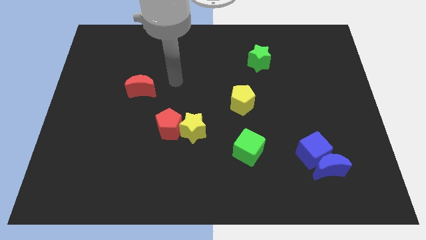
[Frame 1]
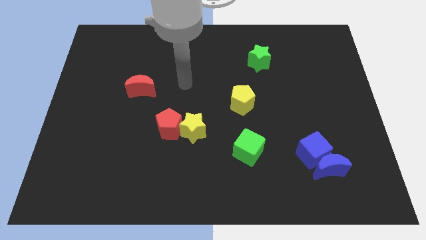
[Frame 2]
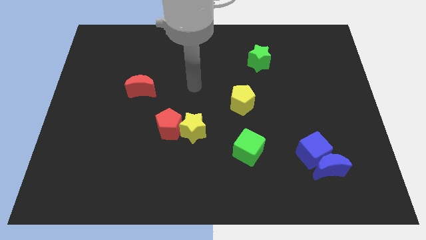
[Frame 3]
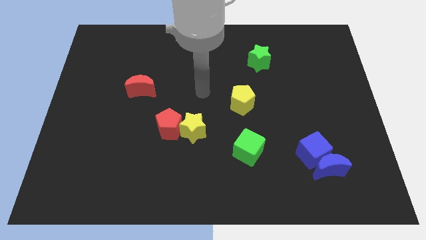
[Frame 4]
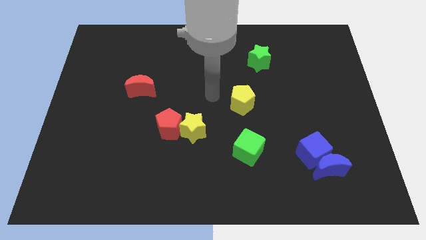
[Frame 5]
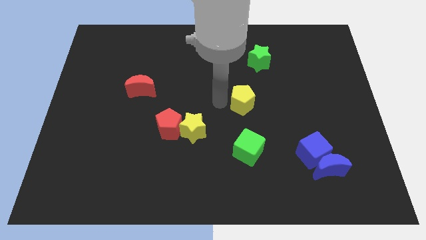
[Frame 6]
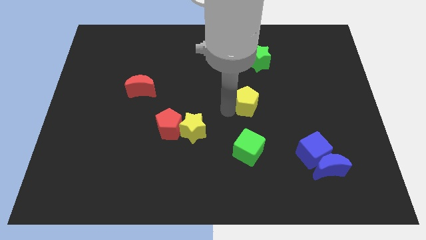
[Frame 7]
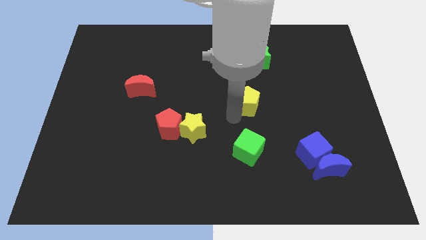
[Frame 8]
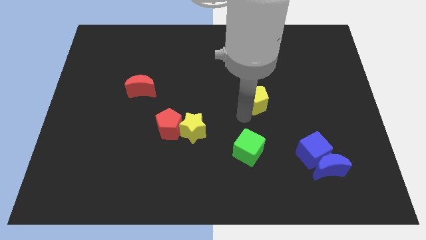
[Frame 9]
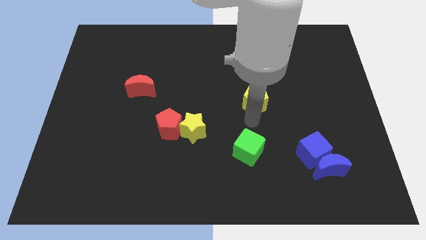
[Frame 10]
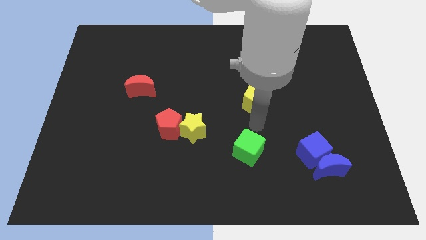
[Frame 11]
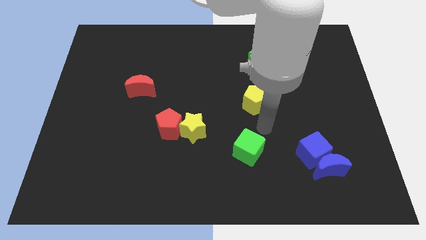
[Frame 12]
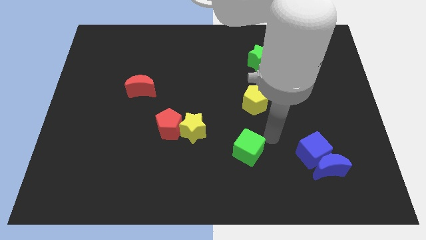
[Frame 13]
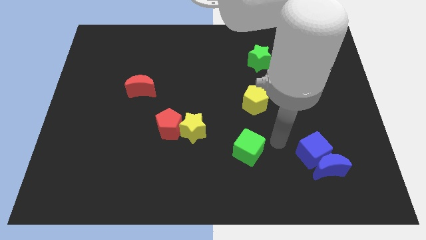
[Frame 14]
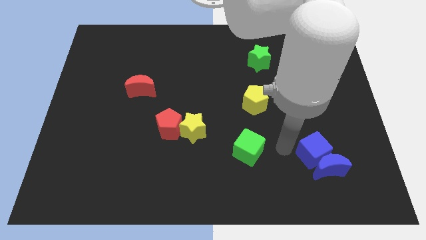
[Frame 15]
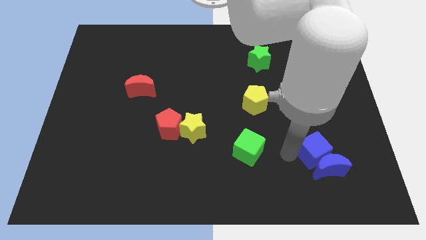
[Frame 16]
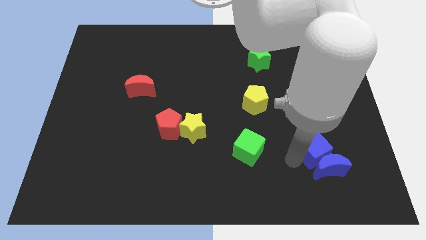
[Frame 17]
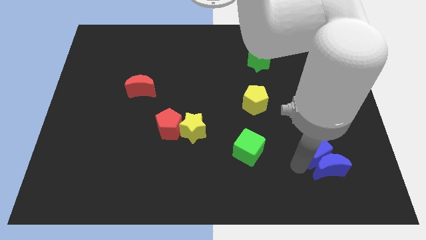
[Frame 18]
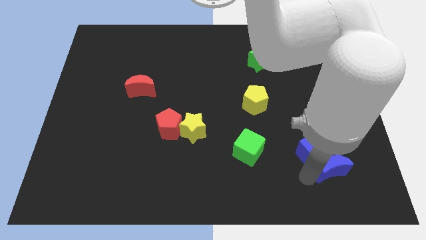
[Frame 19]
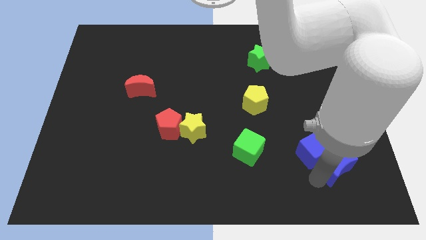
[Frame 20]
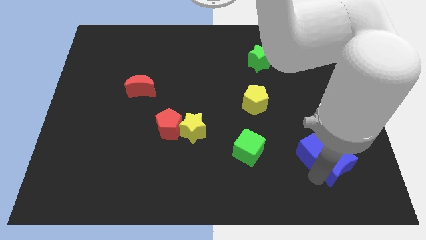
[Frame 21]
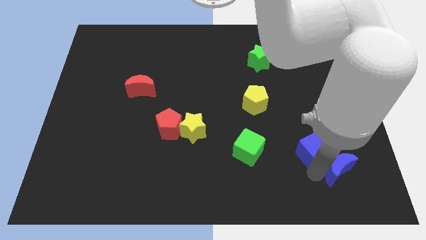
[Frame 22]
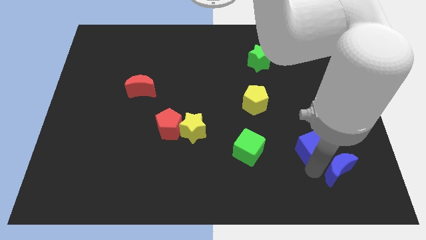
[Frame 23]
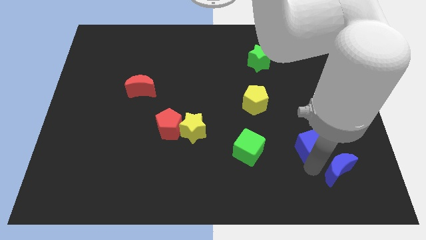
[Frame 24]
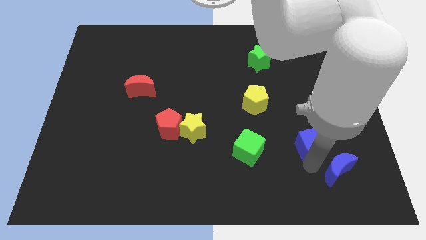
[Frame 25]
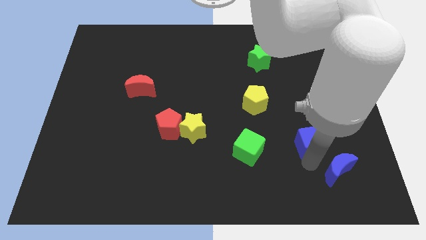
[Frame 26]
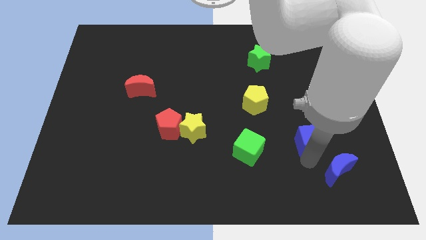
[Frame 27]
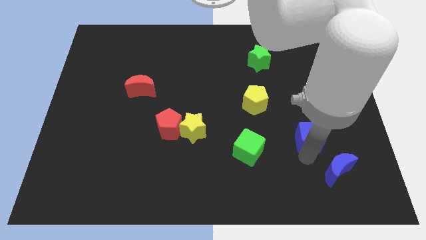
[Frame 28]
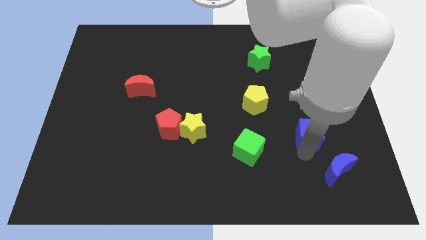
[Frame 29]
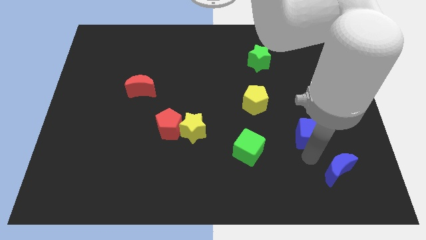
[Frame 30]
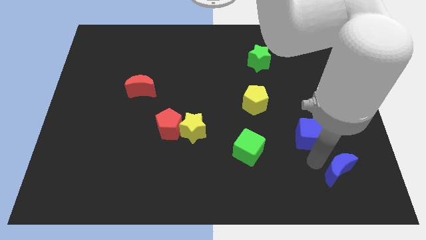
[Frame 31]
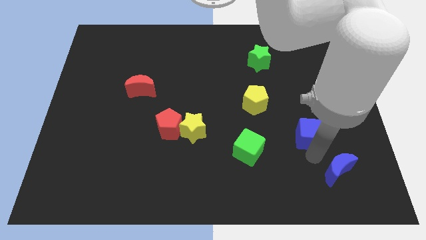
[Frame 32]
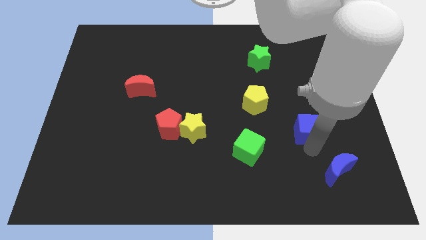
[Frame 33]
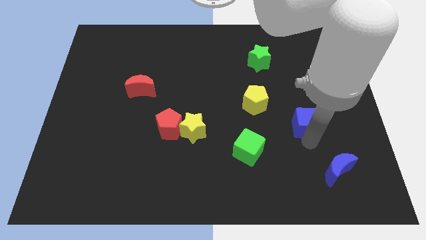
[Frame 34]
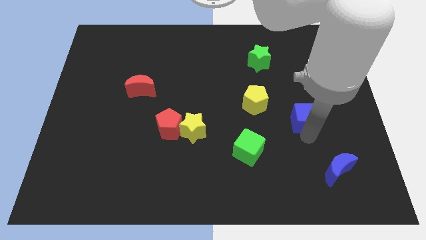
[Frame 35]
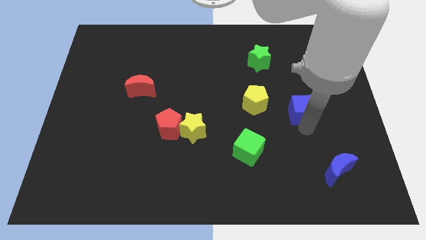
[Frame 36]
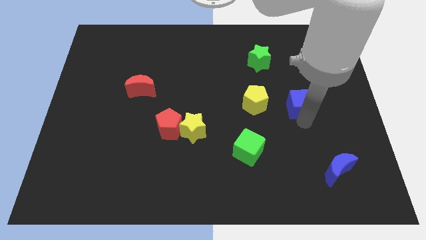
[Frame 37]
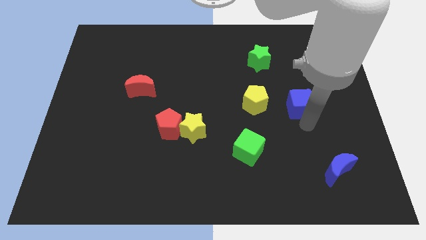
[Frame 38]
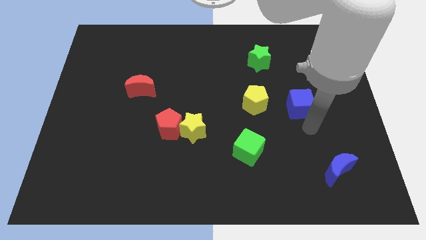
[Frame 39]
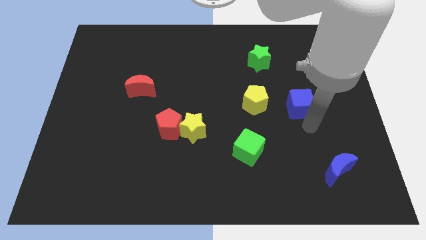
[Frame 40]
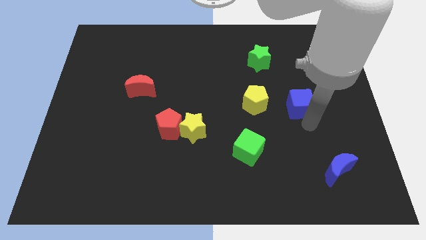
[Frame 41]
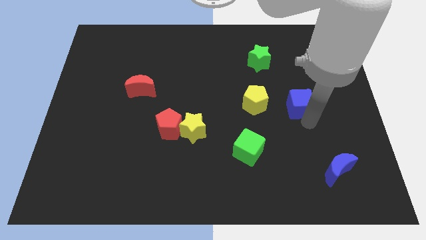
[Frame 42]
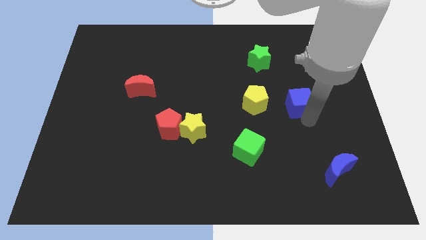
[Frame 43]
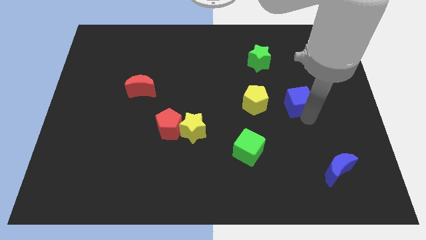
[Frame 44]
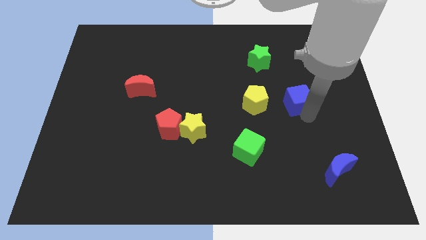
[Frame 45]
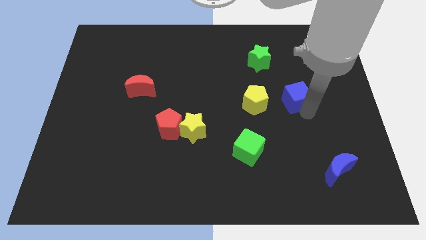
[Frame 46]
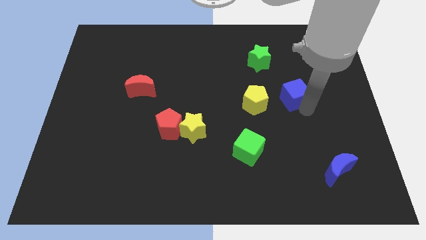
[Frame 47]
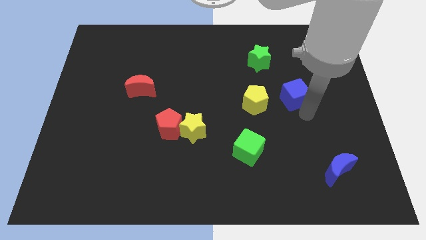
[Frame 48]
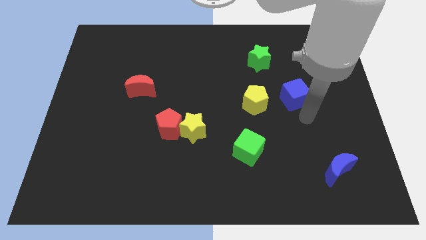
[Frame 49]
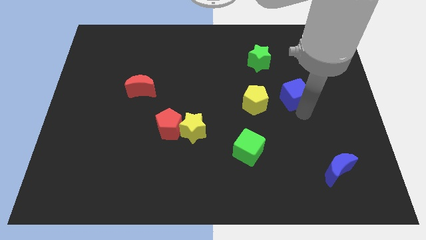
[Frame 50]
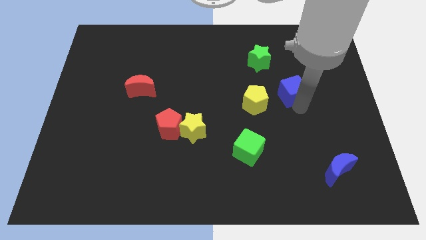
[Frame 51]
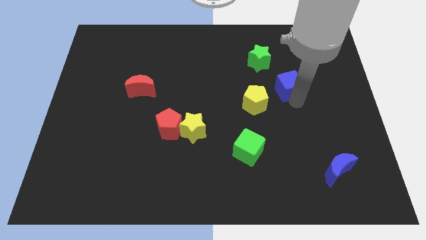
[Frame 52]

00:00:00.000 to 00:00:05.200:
push the blue cube to the bottom right side of the green star

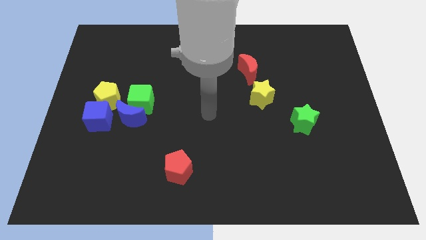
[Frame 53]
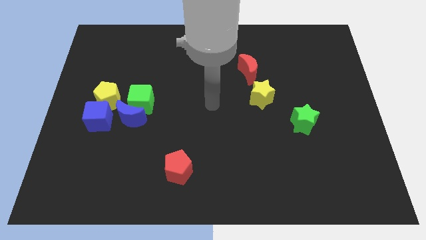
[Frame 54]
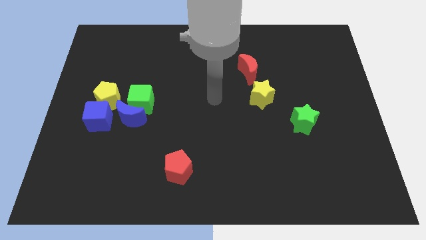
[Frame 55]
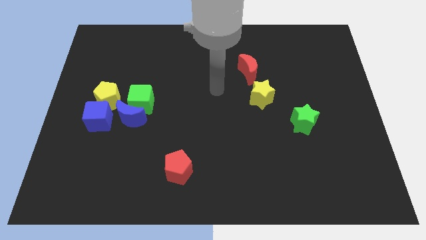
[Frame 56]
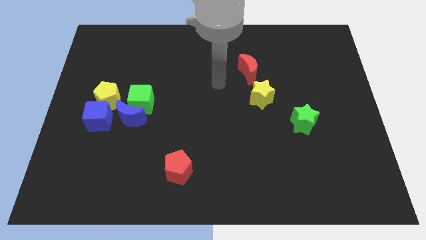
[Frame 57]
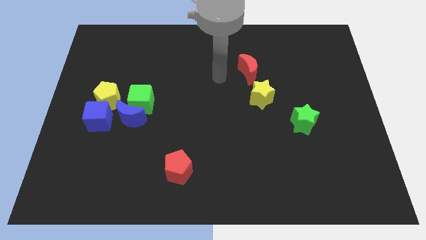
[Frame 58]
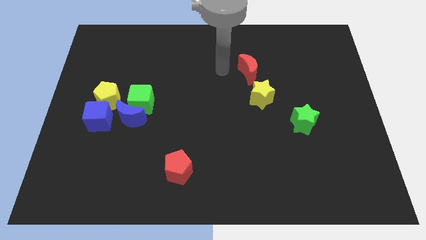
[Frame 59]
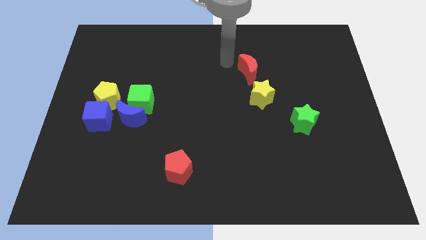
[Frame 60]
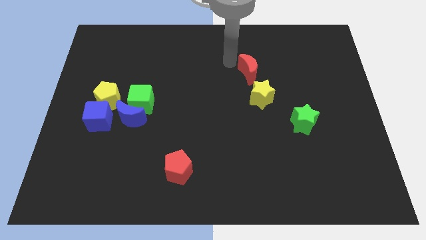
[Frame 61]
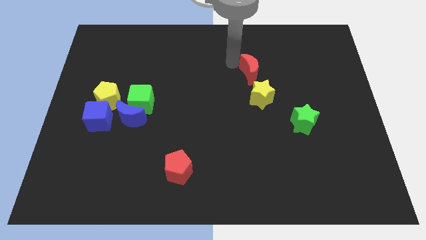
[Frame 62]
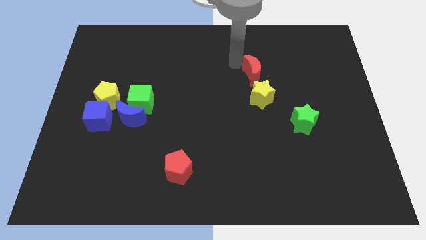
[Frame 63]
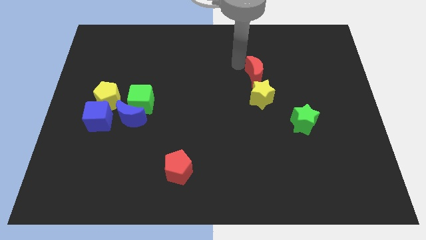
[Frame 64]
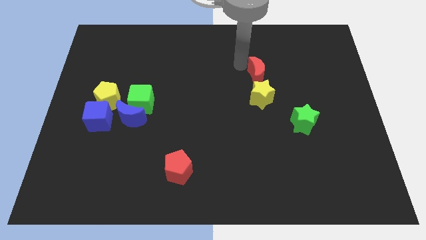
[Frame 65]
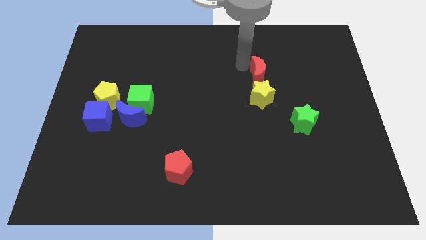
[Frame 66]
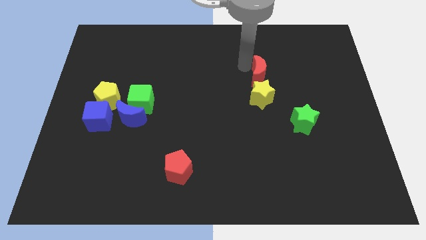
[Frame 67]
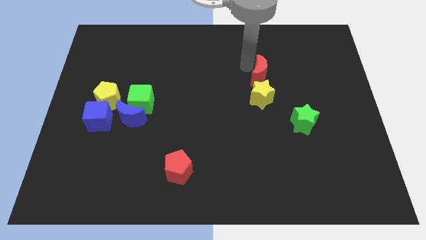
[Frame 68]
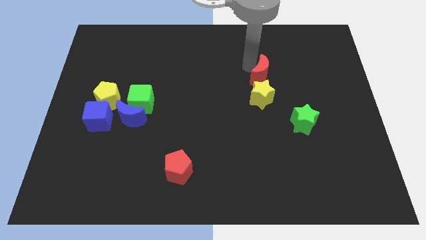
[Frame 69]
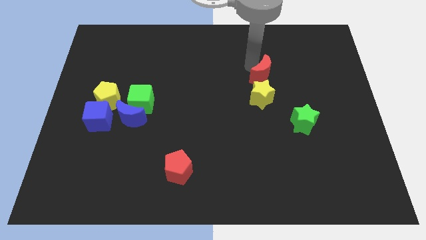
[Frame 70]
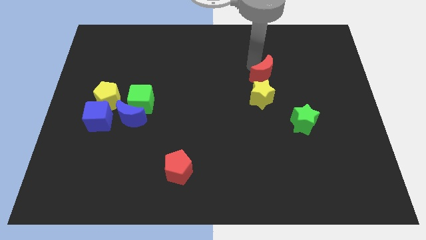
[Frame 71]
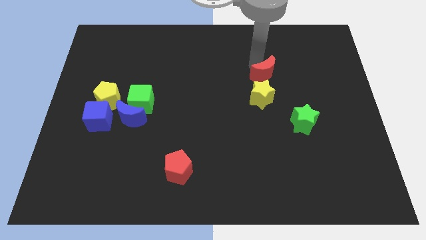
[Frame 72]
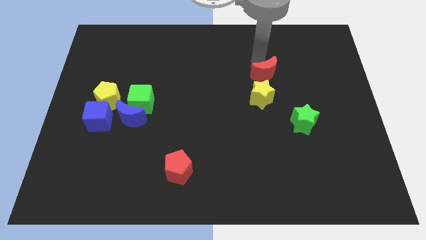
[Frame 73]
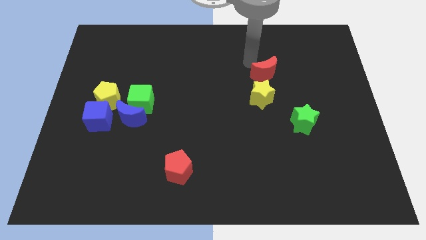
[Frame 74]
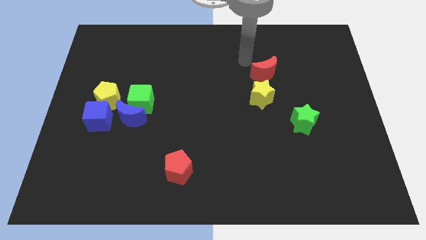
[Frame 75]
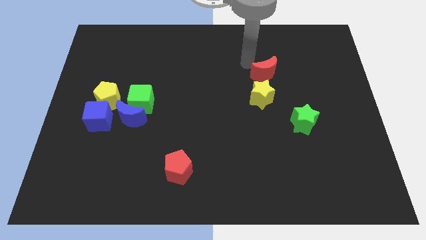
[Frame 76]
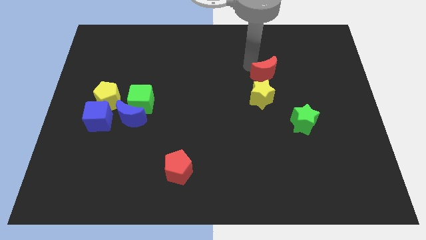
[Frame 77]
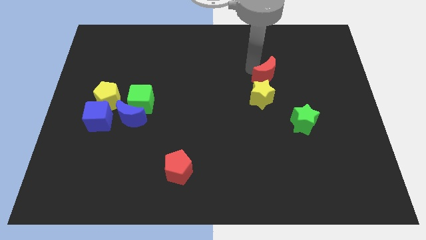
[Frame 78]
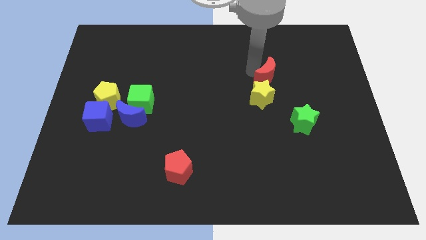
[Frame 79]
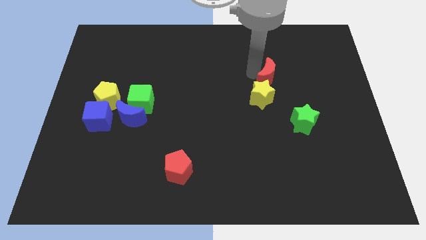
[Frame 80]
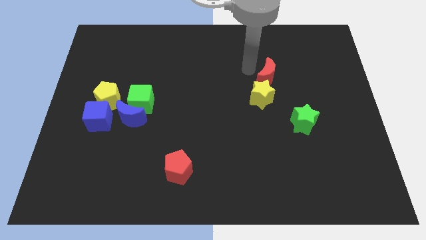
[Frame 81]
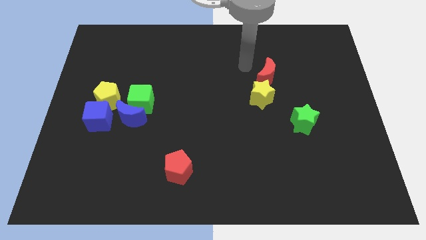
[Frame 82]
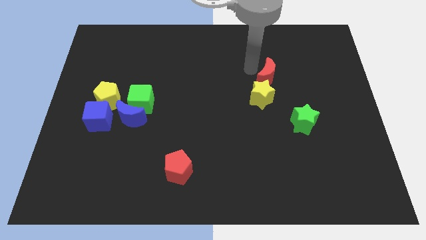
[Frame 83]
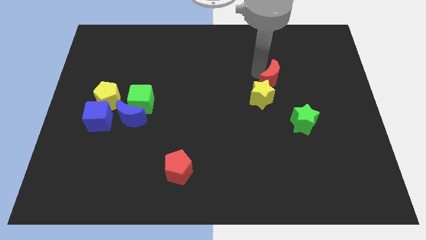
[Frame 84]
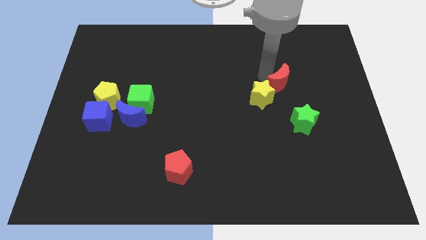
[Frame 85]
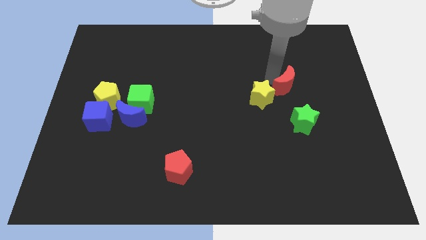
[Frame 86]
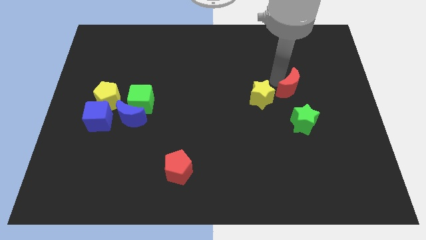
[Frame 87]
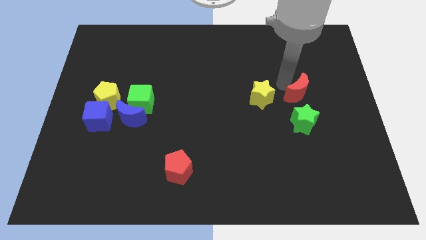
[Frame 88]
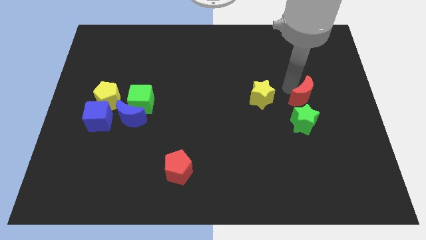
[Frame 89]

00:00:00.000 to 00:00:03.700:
move the red moon diagonally up and to the right of the green star
